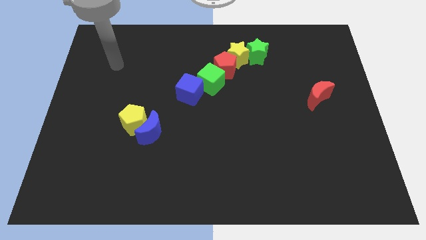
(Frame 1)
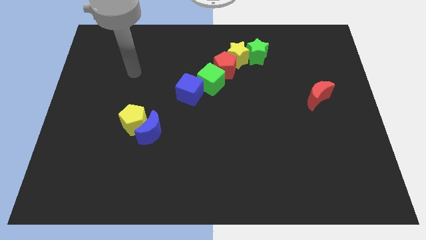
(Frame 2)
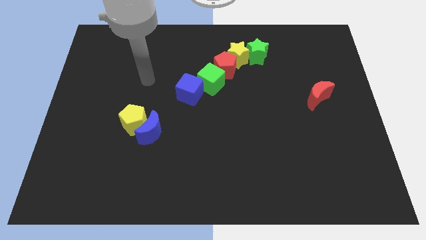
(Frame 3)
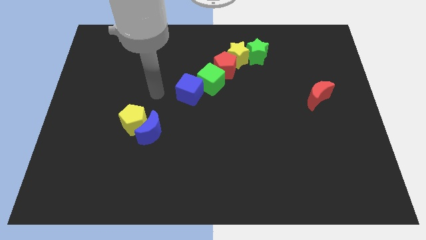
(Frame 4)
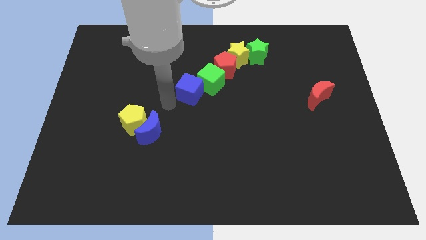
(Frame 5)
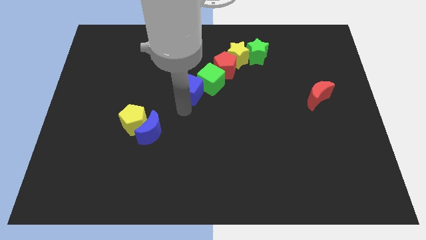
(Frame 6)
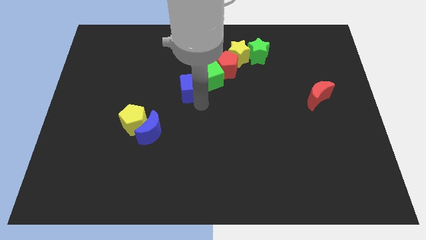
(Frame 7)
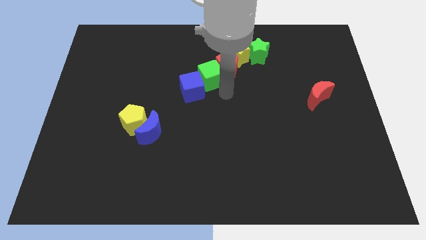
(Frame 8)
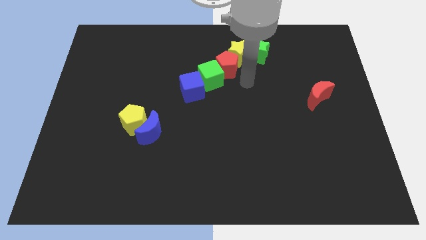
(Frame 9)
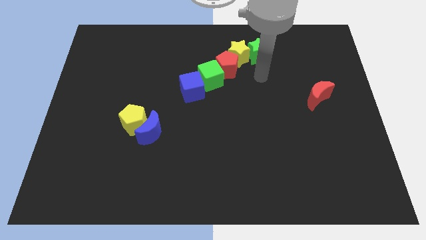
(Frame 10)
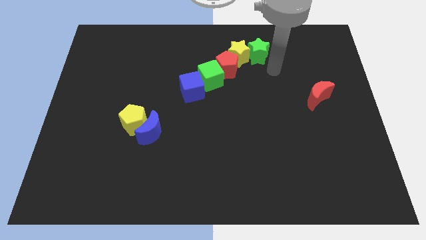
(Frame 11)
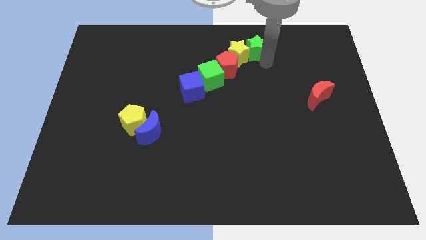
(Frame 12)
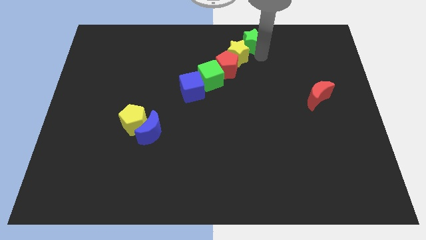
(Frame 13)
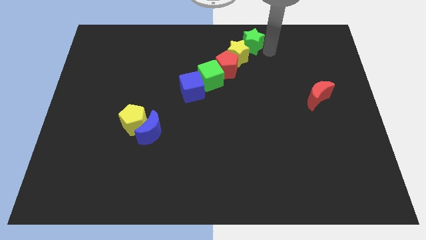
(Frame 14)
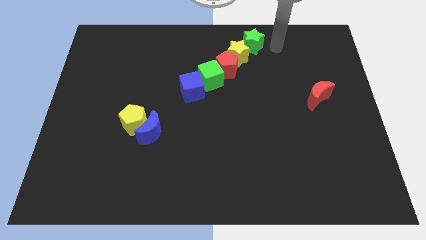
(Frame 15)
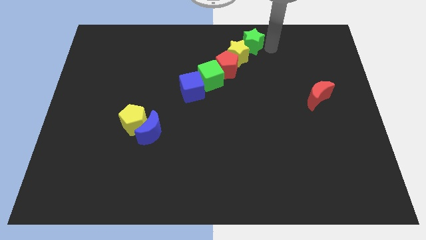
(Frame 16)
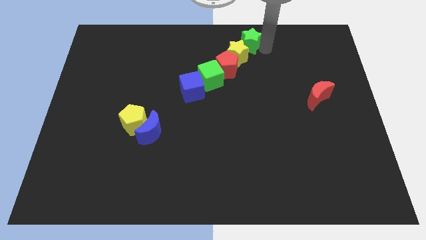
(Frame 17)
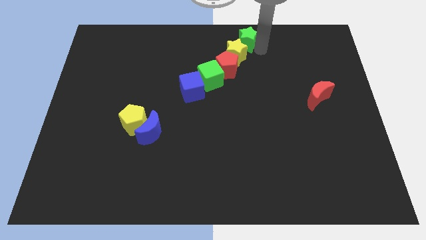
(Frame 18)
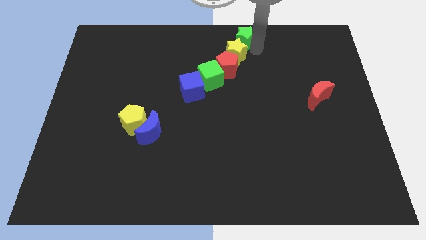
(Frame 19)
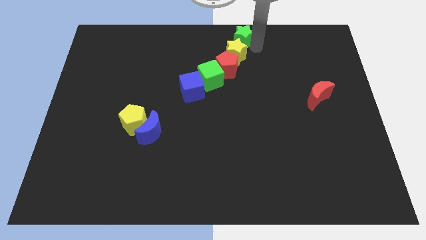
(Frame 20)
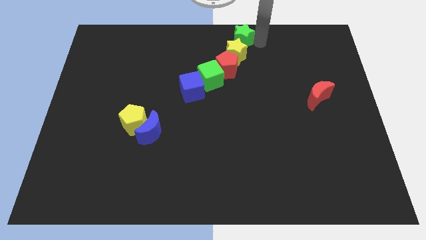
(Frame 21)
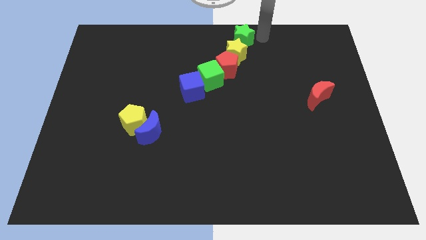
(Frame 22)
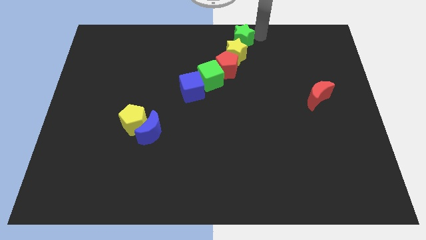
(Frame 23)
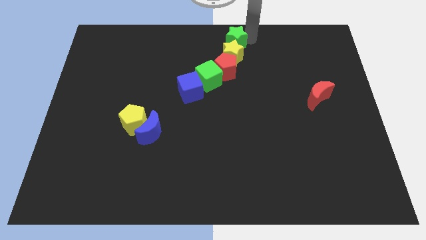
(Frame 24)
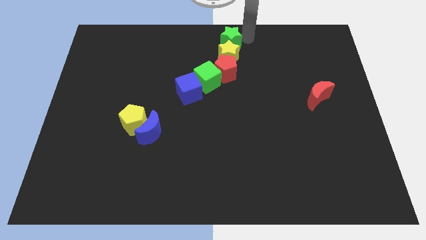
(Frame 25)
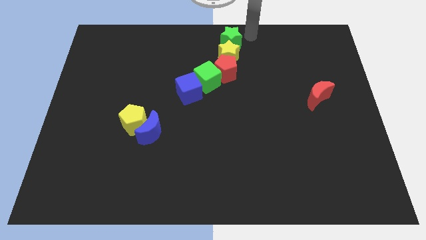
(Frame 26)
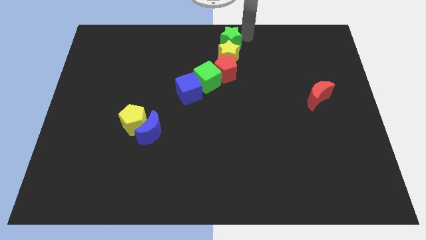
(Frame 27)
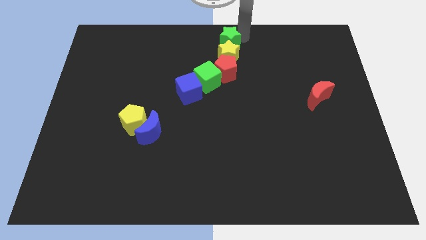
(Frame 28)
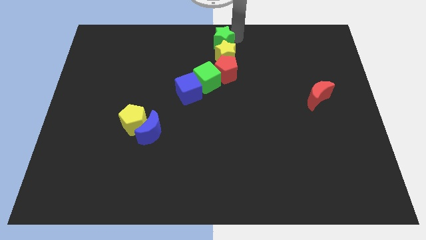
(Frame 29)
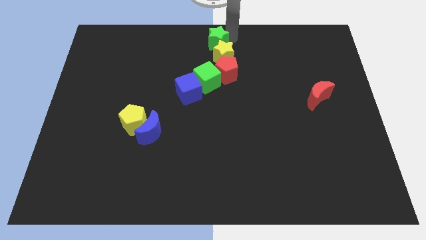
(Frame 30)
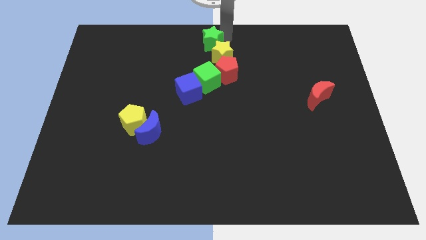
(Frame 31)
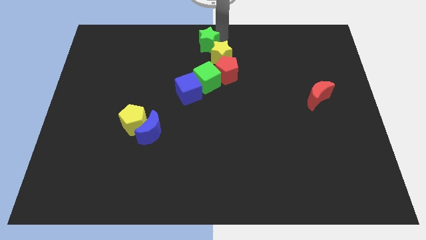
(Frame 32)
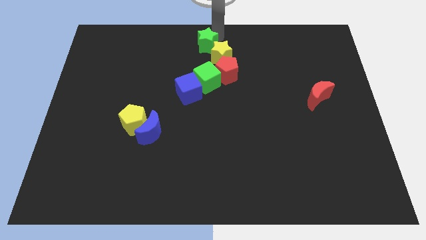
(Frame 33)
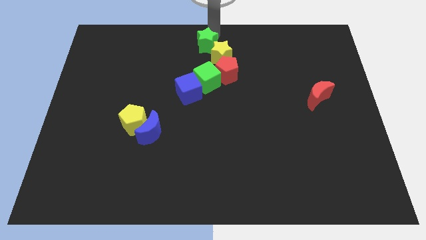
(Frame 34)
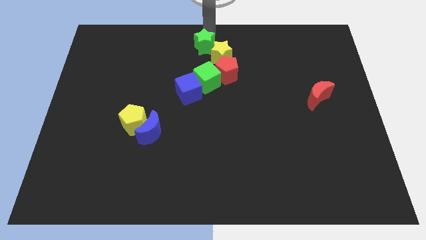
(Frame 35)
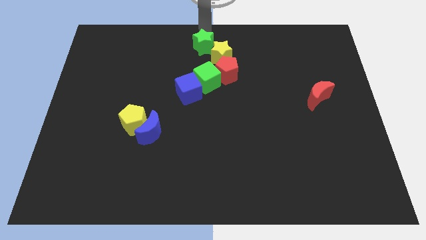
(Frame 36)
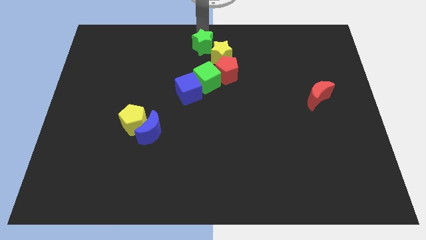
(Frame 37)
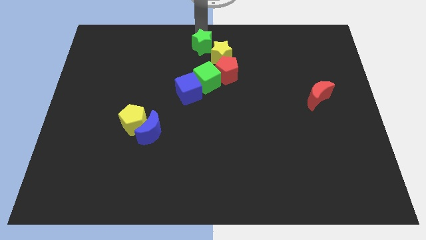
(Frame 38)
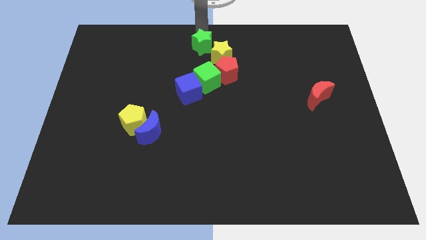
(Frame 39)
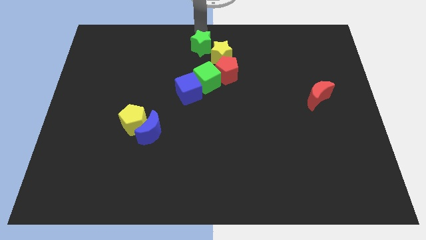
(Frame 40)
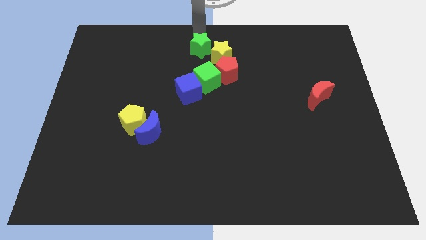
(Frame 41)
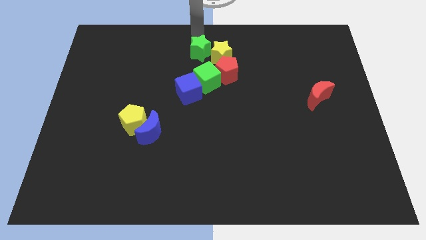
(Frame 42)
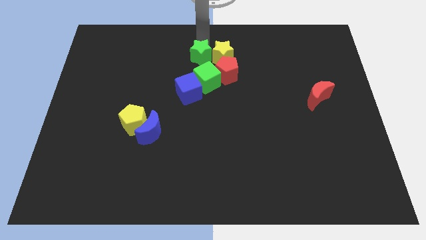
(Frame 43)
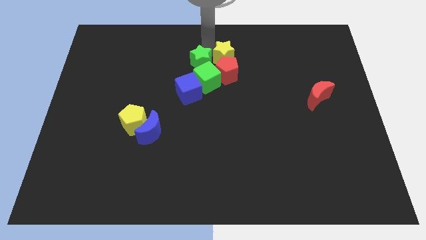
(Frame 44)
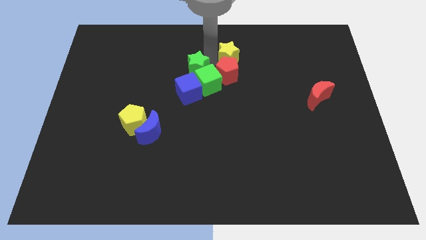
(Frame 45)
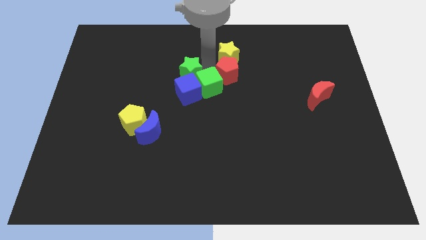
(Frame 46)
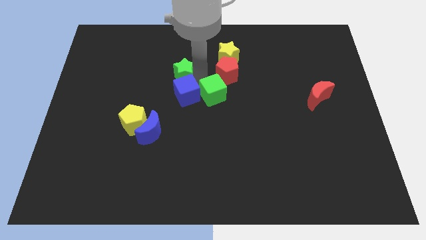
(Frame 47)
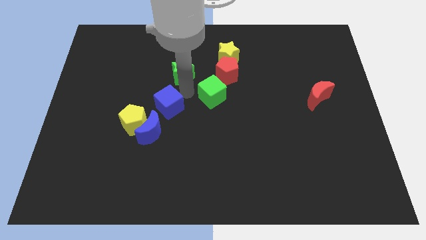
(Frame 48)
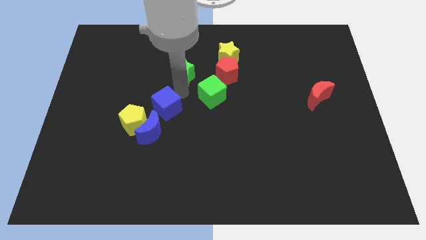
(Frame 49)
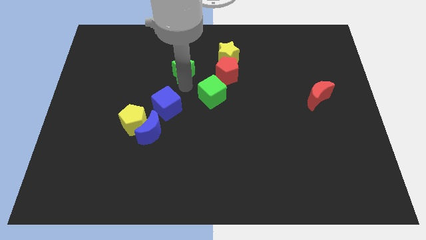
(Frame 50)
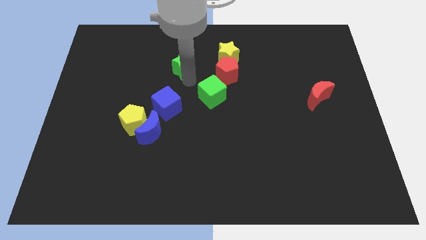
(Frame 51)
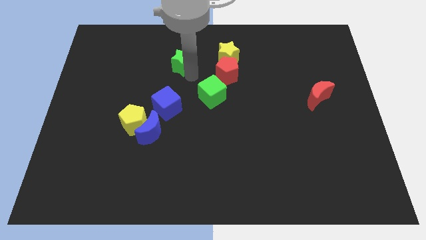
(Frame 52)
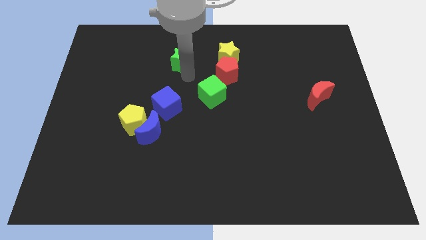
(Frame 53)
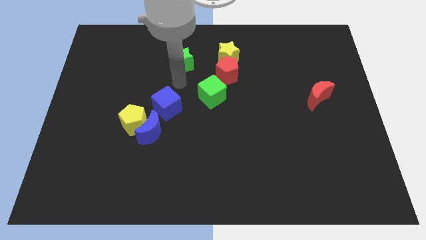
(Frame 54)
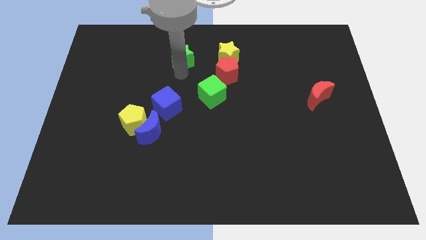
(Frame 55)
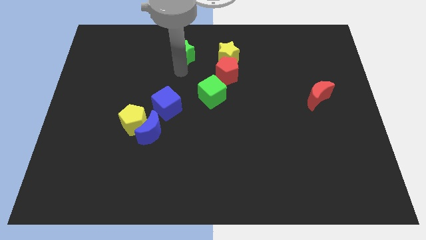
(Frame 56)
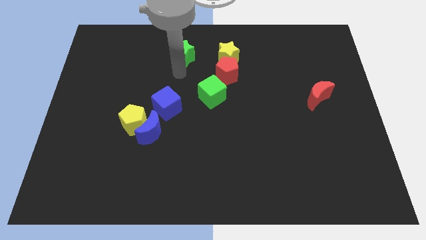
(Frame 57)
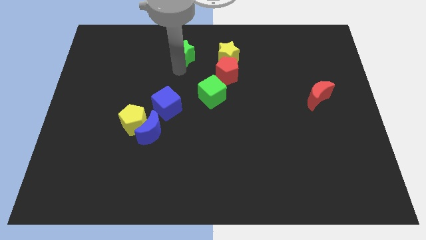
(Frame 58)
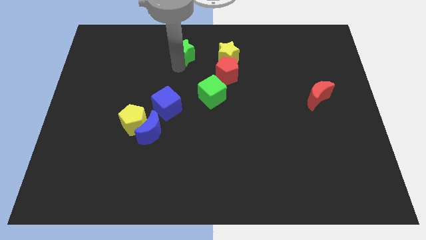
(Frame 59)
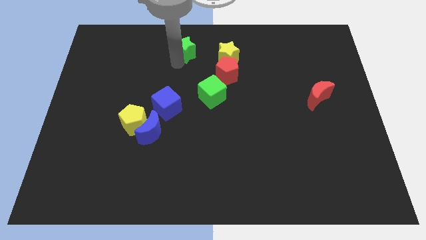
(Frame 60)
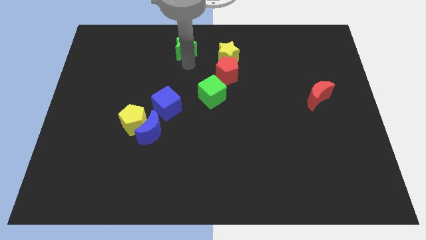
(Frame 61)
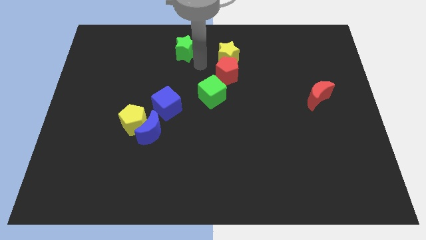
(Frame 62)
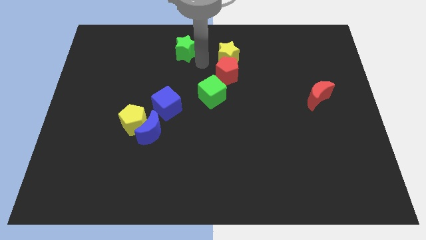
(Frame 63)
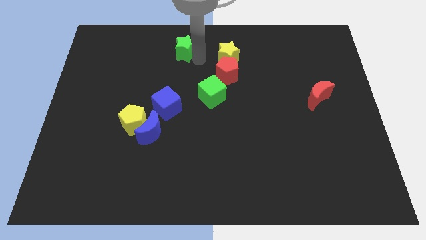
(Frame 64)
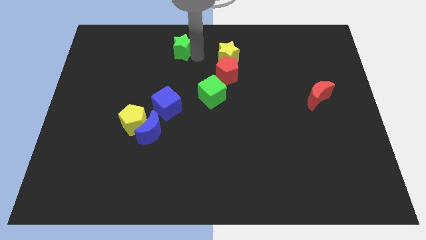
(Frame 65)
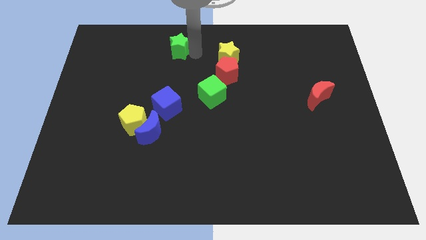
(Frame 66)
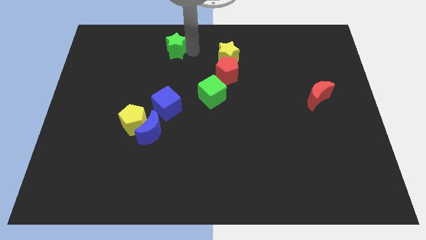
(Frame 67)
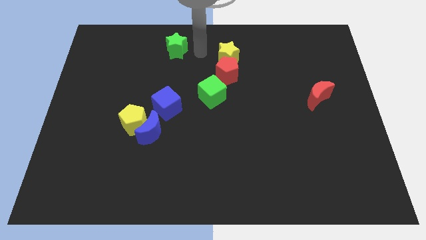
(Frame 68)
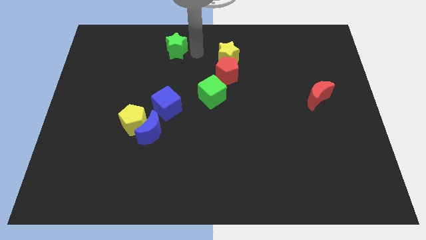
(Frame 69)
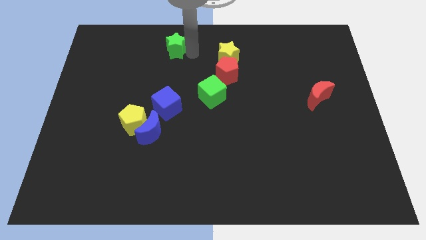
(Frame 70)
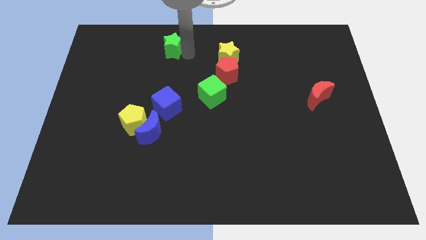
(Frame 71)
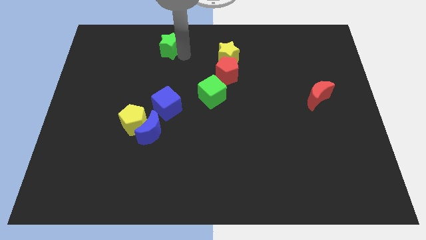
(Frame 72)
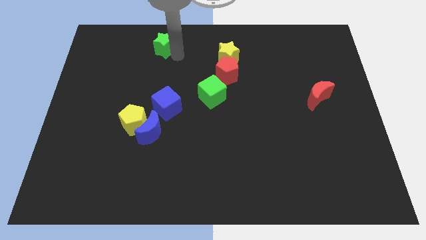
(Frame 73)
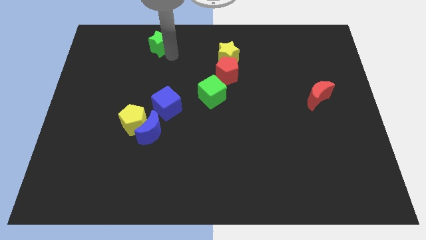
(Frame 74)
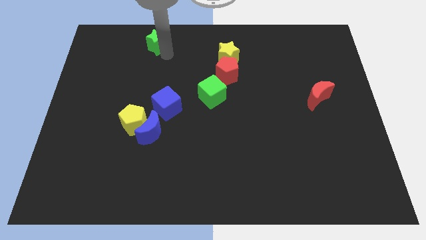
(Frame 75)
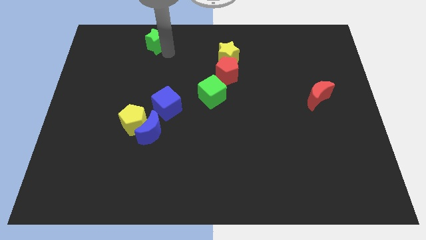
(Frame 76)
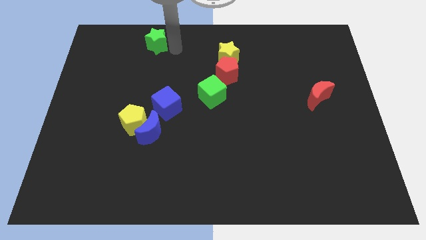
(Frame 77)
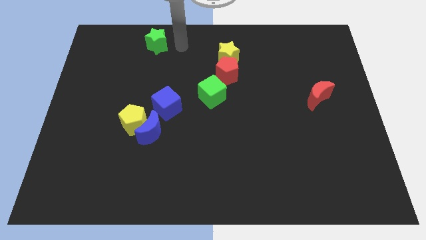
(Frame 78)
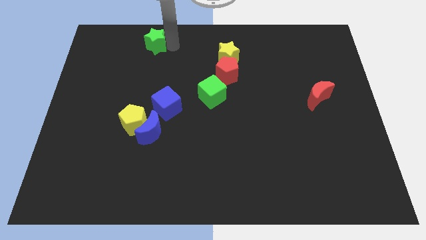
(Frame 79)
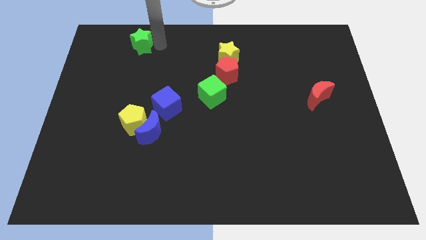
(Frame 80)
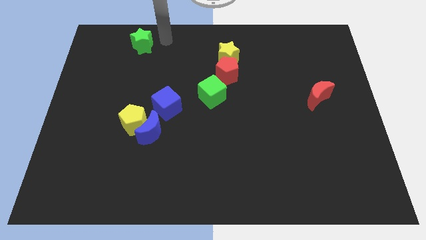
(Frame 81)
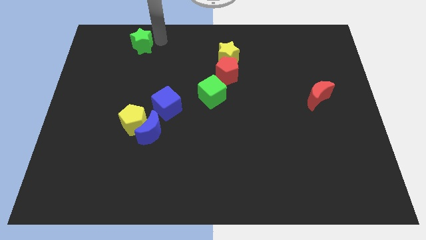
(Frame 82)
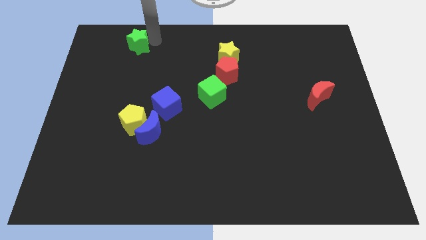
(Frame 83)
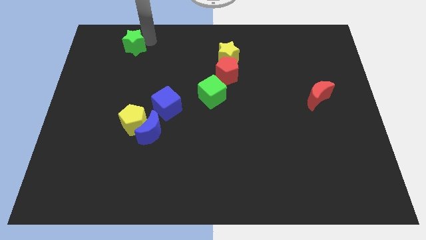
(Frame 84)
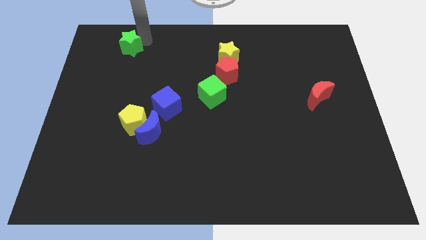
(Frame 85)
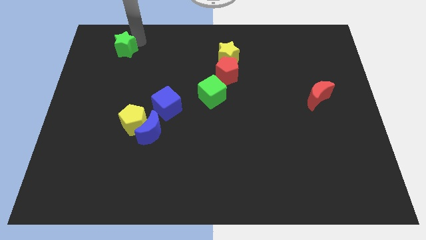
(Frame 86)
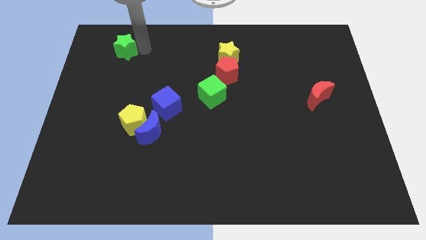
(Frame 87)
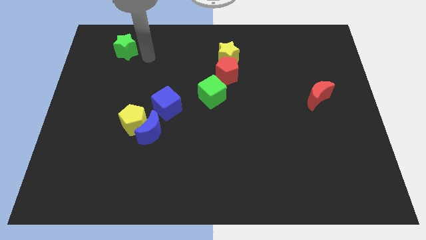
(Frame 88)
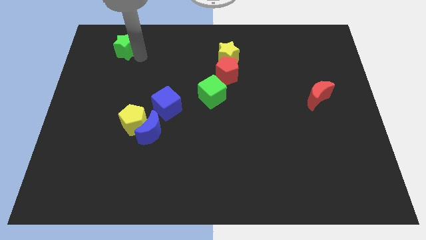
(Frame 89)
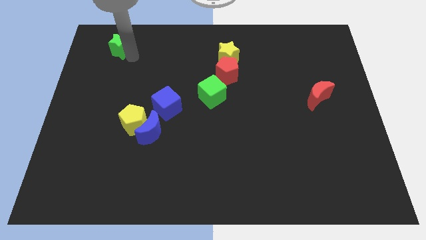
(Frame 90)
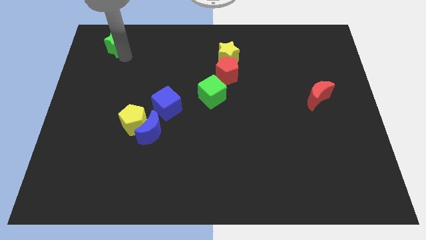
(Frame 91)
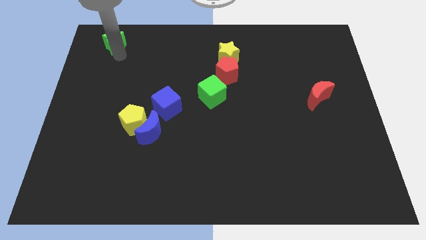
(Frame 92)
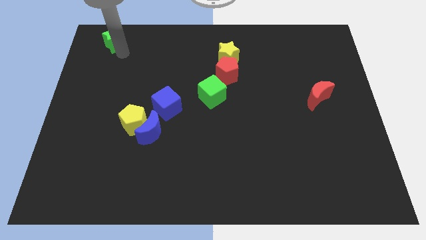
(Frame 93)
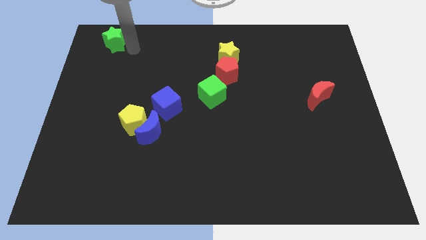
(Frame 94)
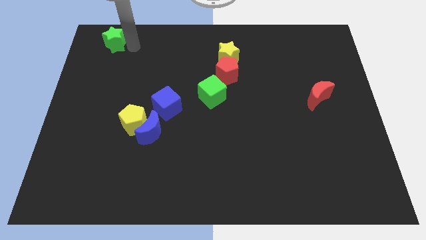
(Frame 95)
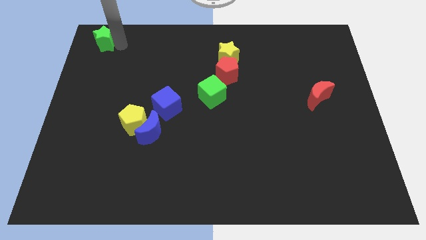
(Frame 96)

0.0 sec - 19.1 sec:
move the green star to the top left of the board
